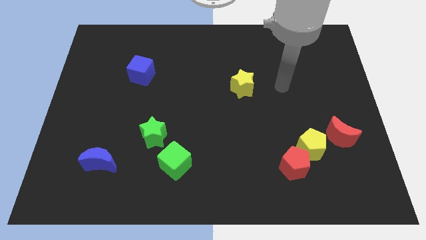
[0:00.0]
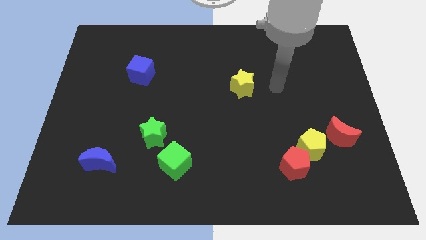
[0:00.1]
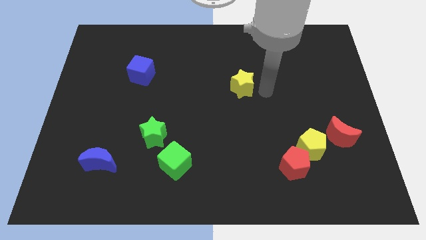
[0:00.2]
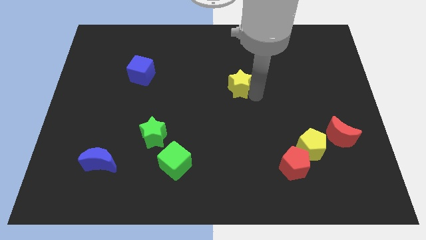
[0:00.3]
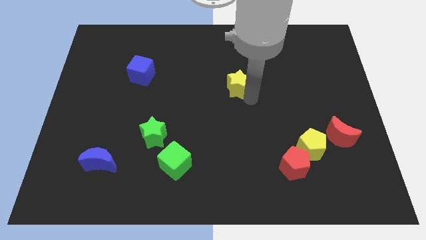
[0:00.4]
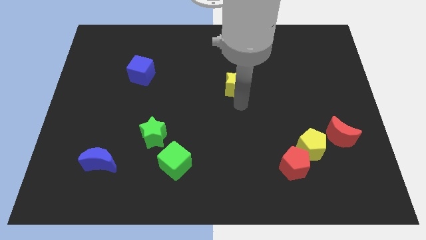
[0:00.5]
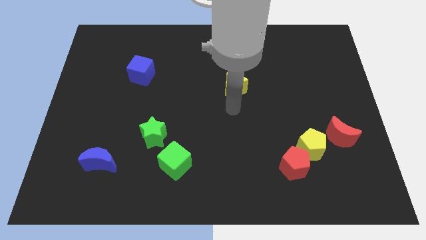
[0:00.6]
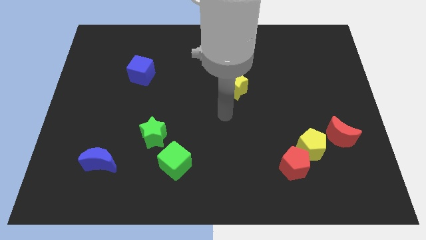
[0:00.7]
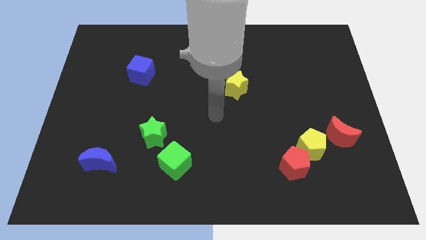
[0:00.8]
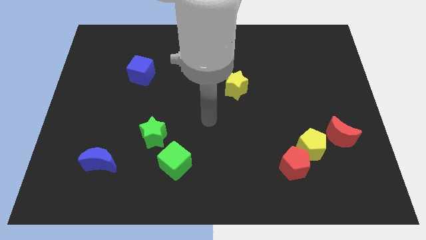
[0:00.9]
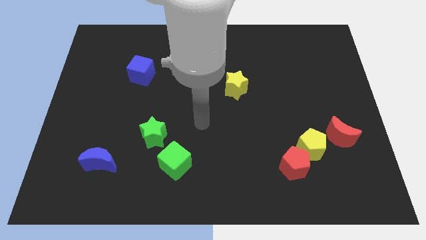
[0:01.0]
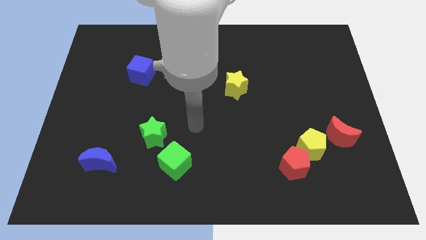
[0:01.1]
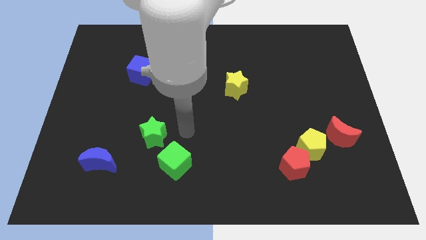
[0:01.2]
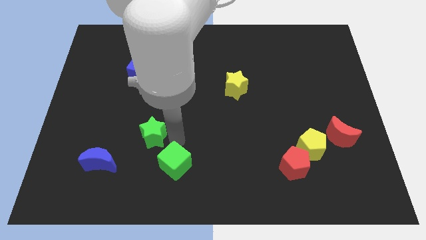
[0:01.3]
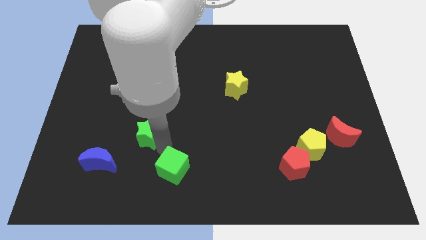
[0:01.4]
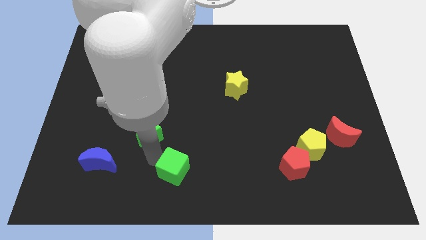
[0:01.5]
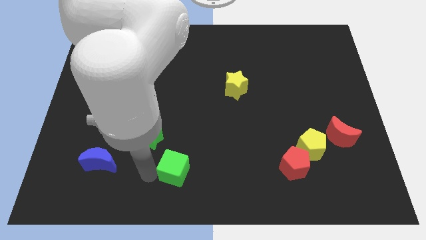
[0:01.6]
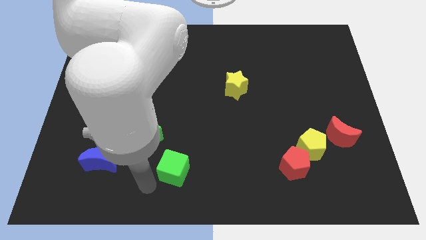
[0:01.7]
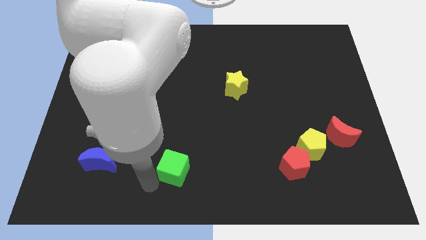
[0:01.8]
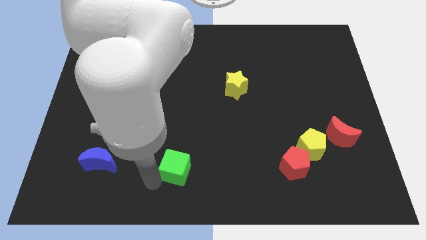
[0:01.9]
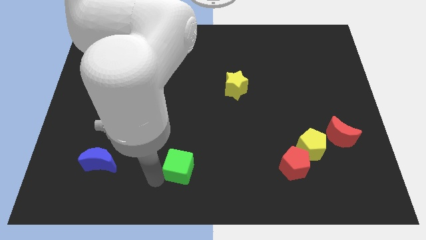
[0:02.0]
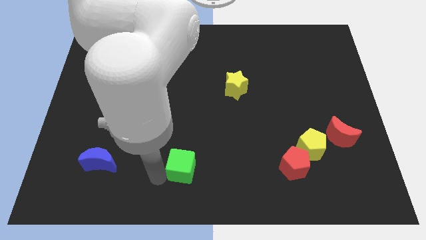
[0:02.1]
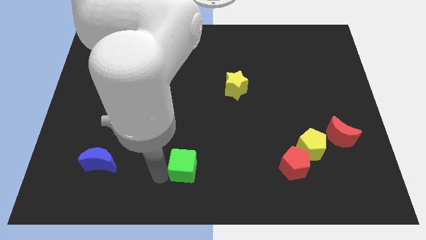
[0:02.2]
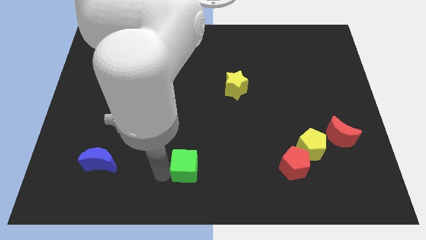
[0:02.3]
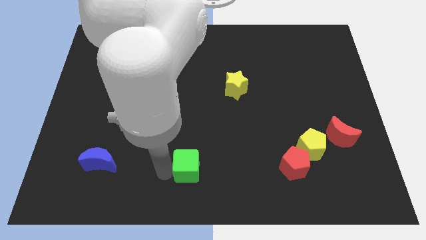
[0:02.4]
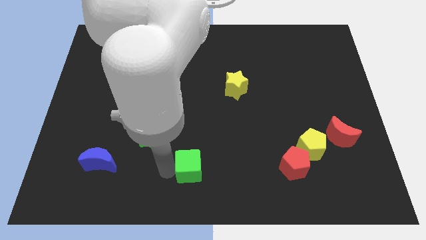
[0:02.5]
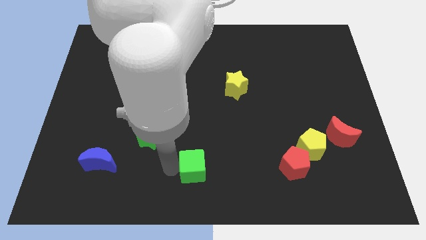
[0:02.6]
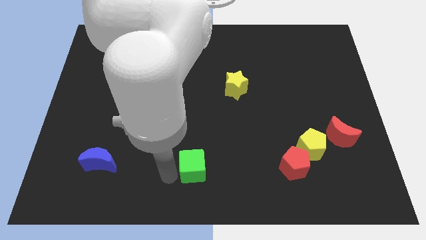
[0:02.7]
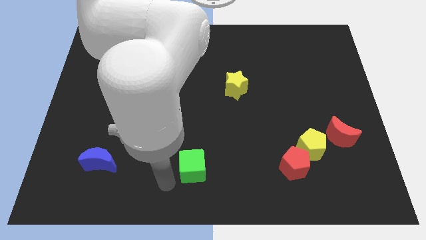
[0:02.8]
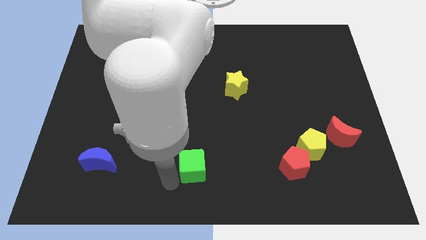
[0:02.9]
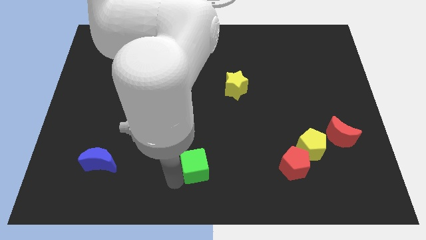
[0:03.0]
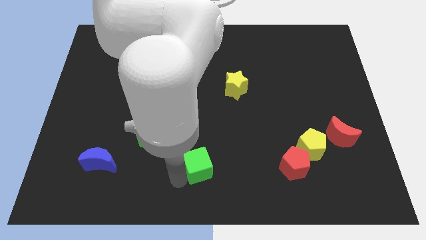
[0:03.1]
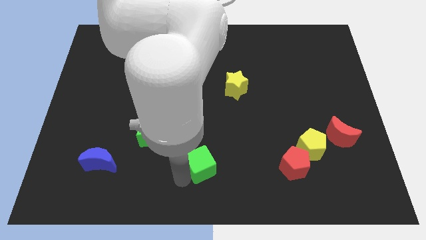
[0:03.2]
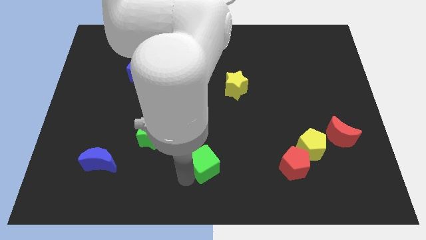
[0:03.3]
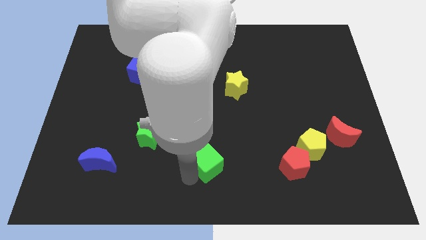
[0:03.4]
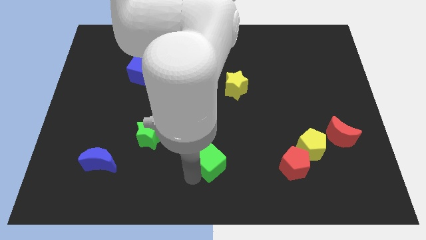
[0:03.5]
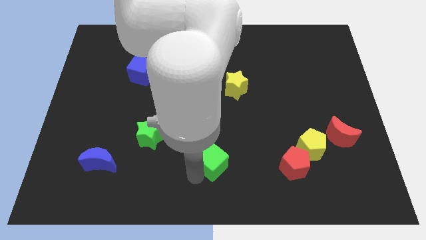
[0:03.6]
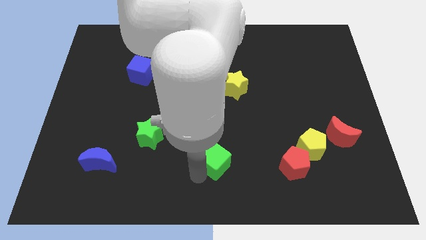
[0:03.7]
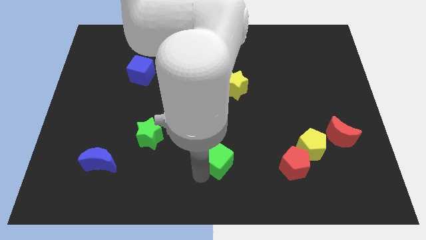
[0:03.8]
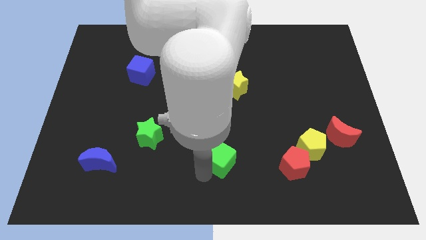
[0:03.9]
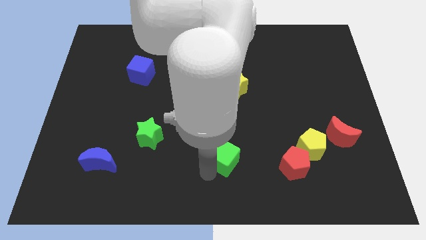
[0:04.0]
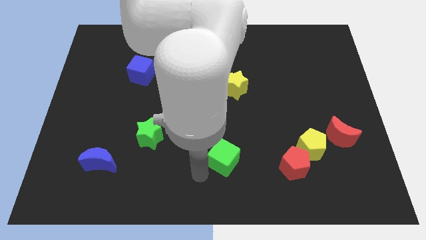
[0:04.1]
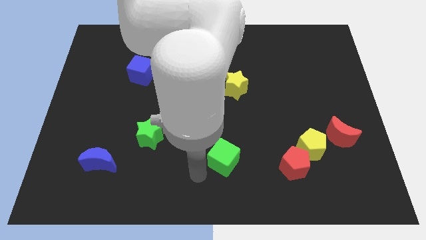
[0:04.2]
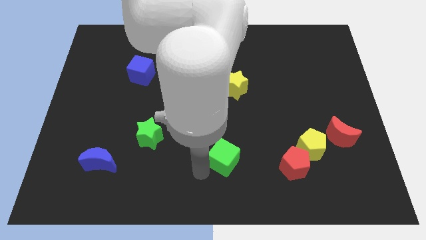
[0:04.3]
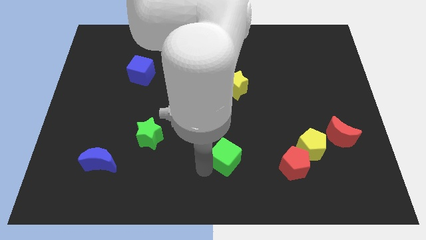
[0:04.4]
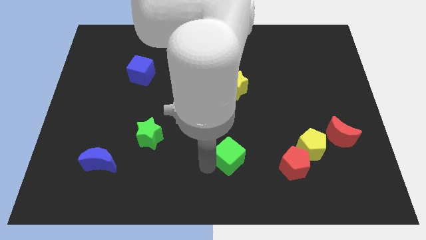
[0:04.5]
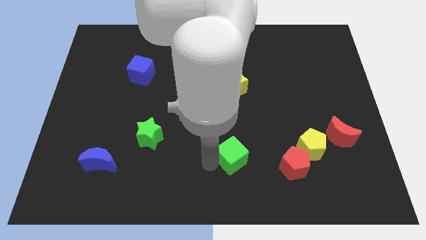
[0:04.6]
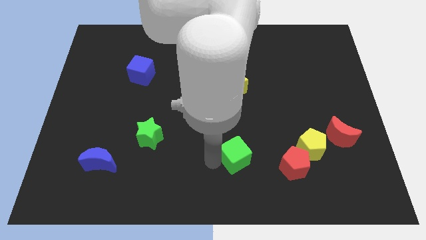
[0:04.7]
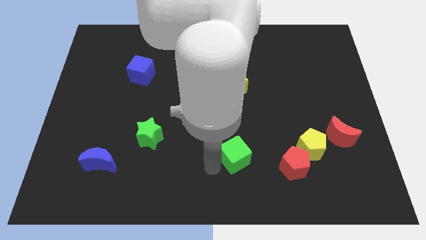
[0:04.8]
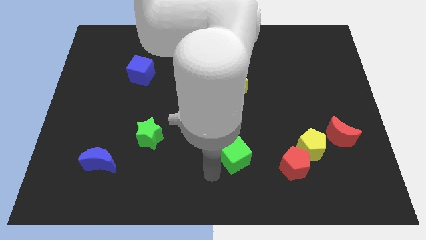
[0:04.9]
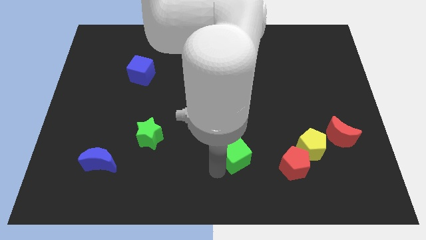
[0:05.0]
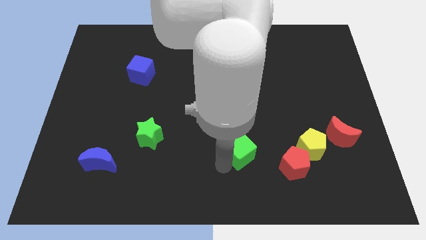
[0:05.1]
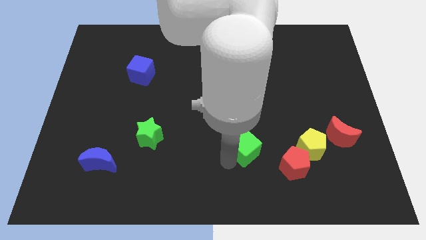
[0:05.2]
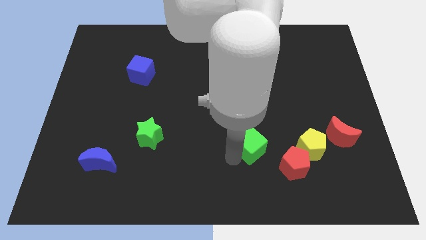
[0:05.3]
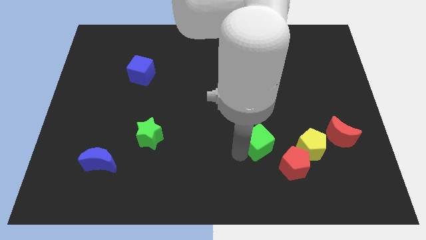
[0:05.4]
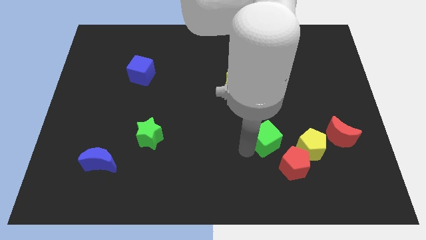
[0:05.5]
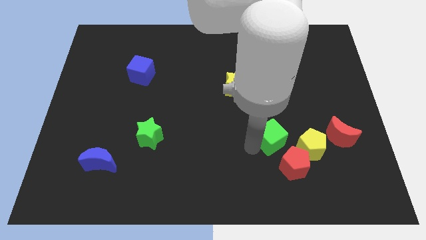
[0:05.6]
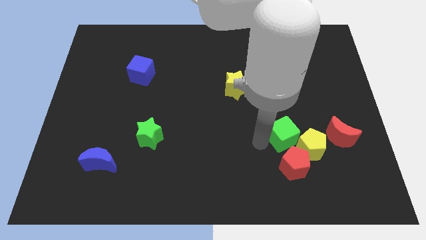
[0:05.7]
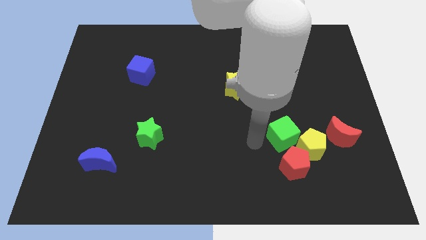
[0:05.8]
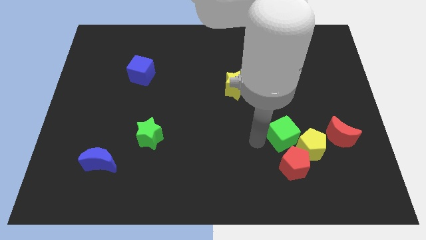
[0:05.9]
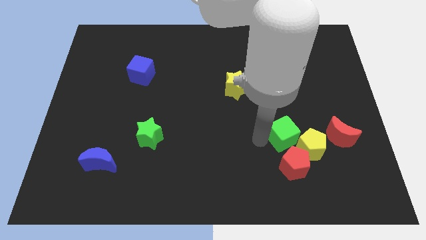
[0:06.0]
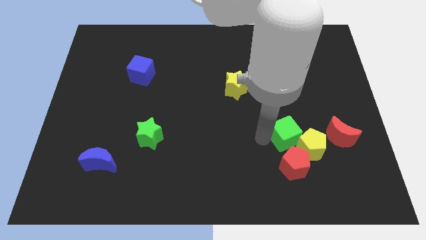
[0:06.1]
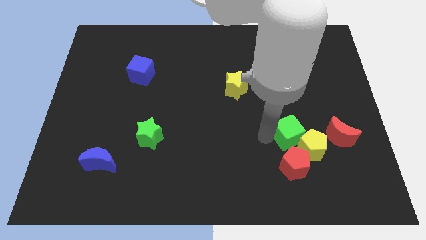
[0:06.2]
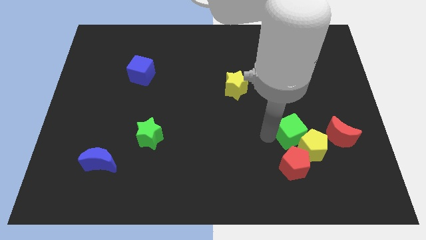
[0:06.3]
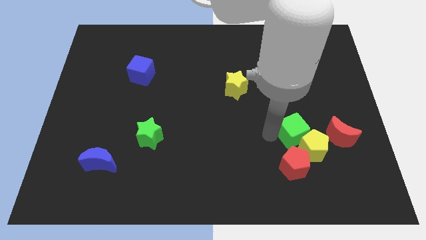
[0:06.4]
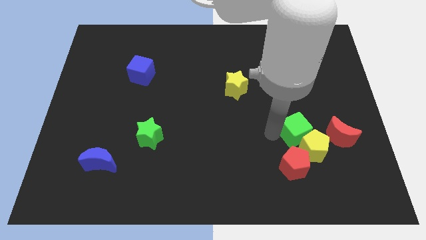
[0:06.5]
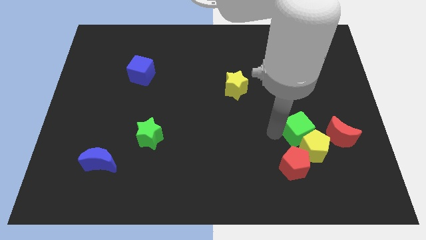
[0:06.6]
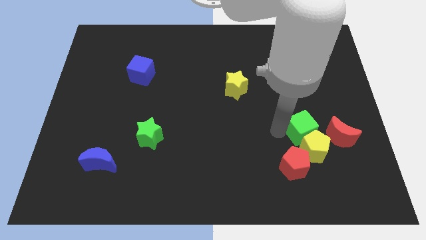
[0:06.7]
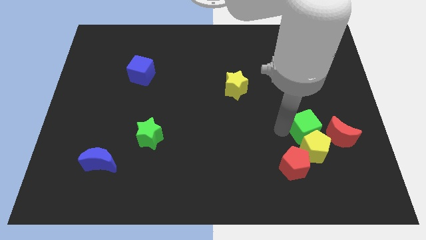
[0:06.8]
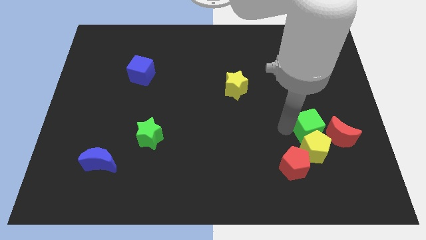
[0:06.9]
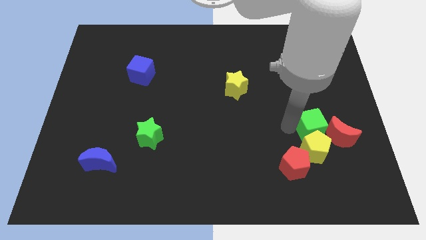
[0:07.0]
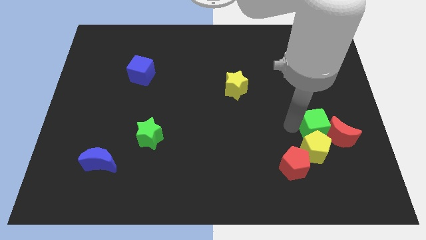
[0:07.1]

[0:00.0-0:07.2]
move the green cube towards the red moon
